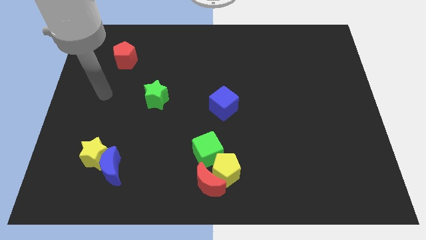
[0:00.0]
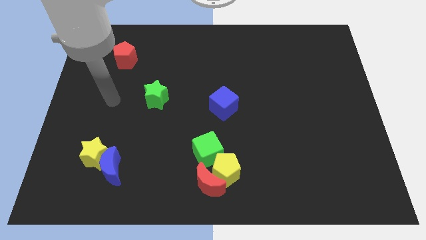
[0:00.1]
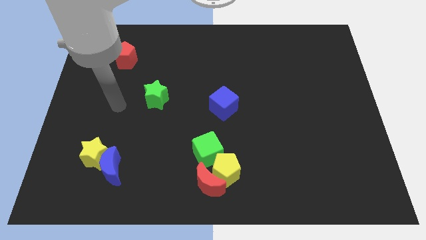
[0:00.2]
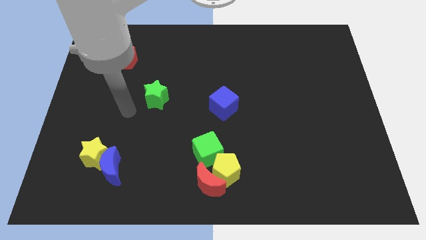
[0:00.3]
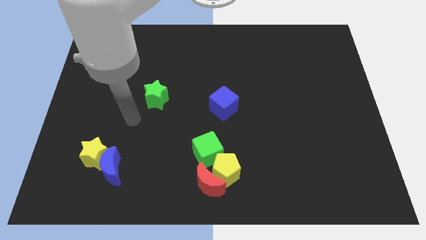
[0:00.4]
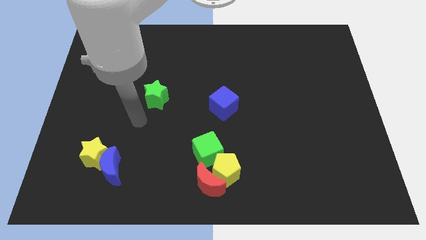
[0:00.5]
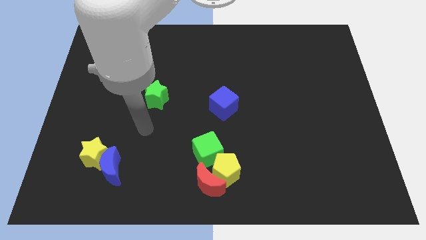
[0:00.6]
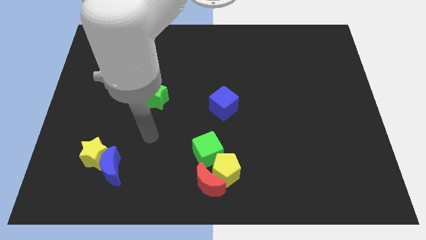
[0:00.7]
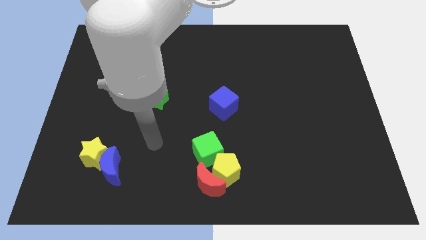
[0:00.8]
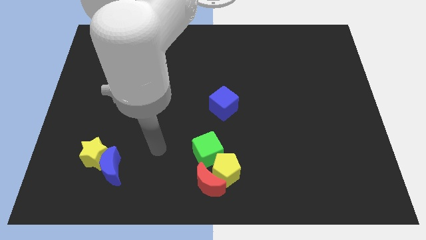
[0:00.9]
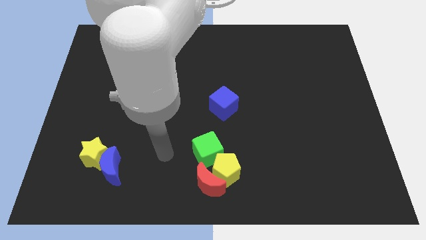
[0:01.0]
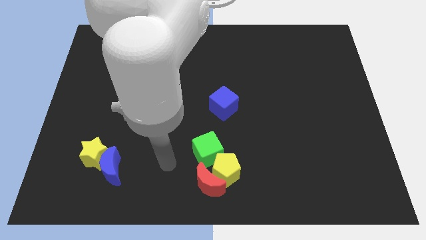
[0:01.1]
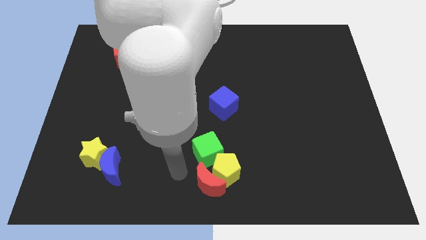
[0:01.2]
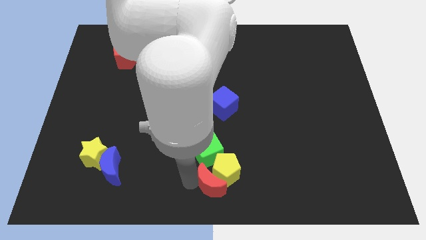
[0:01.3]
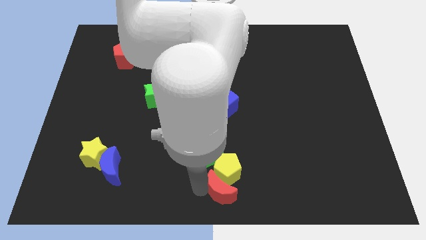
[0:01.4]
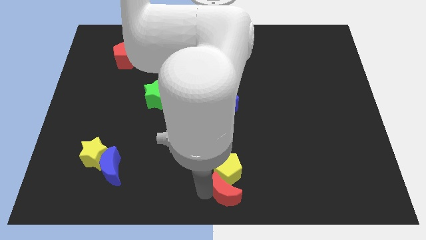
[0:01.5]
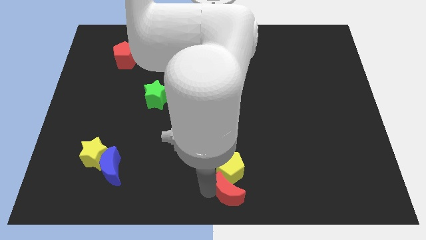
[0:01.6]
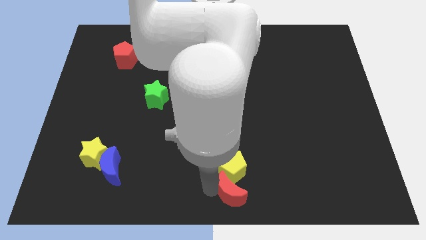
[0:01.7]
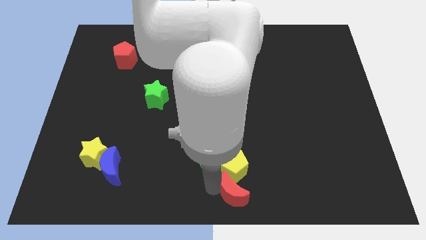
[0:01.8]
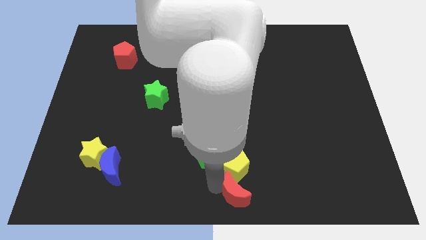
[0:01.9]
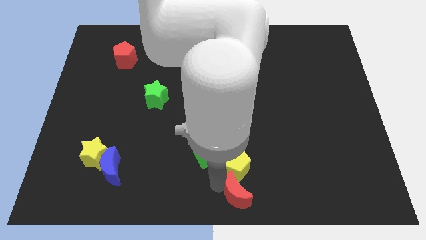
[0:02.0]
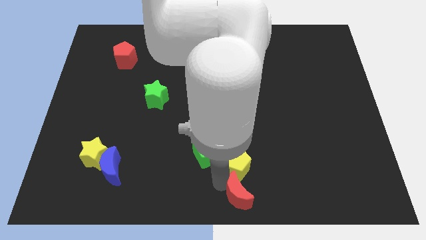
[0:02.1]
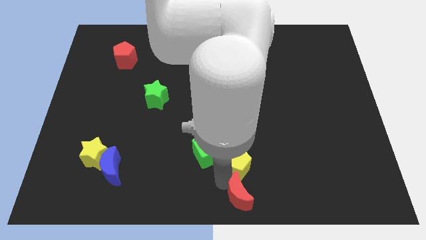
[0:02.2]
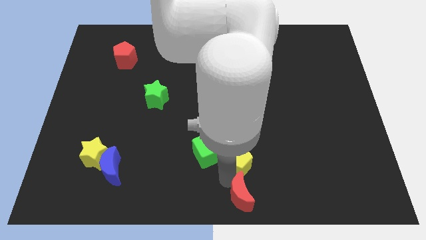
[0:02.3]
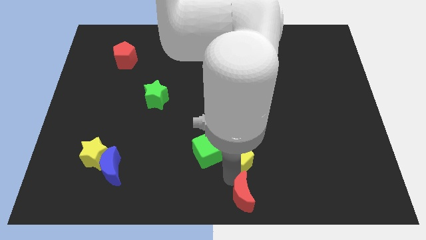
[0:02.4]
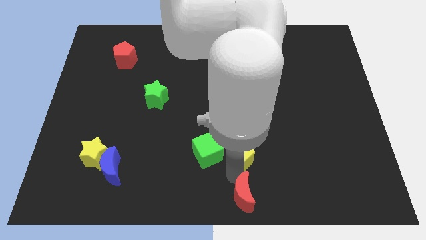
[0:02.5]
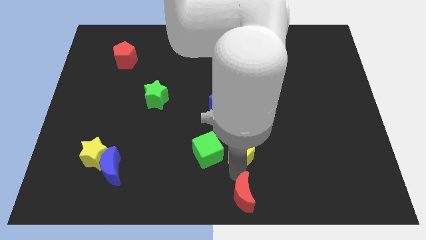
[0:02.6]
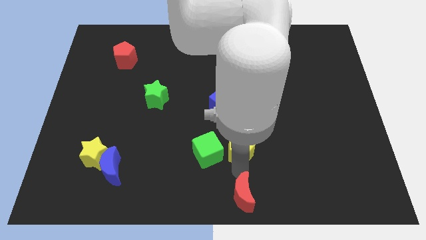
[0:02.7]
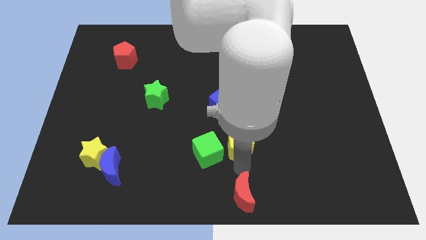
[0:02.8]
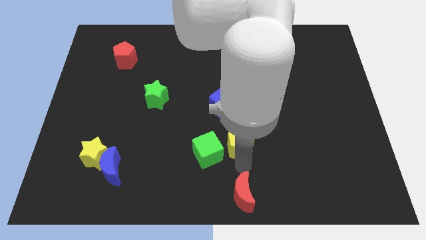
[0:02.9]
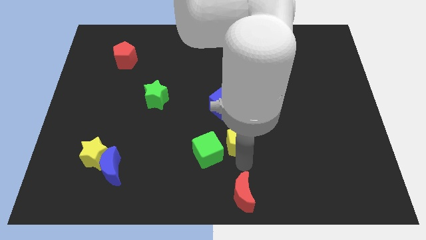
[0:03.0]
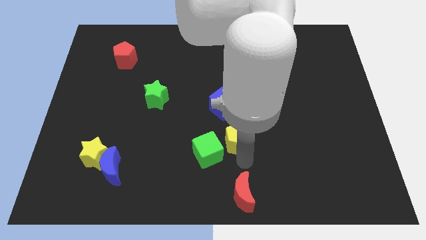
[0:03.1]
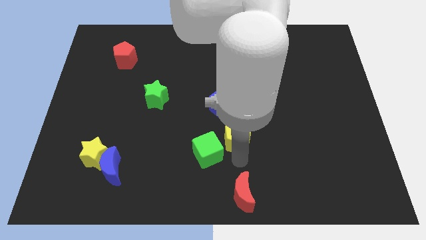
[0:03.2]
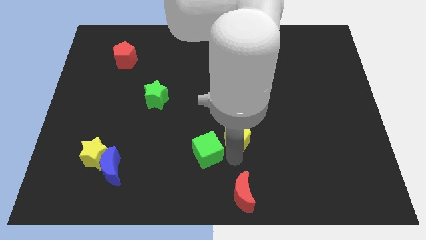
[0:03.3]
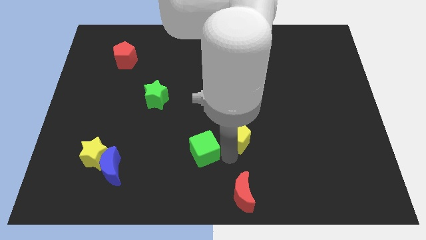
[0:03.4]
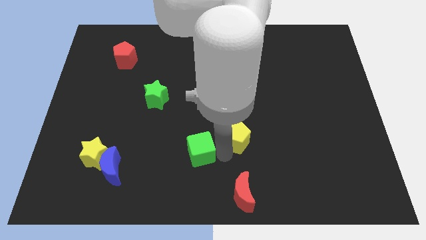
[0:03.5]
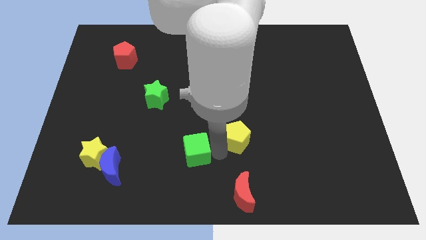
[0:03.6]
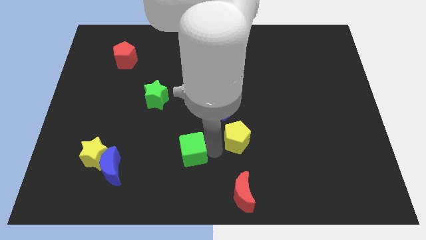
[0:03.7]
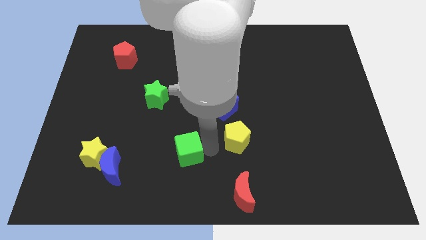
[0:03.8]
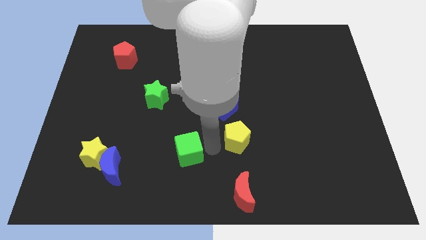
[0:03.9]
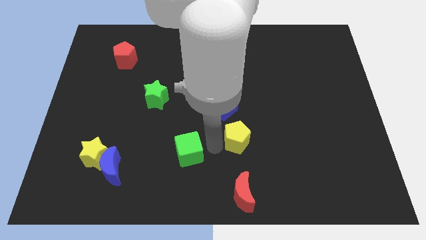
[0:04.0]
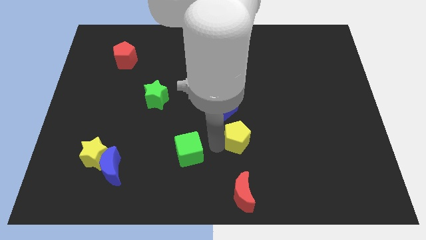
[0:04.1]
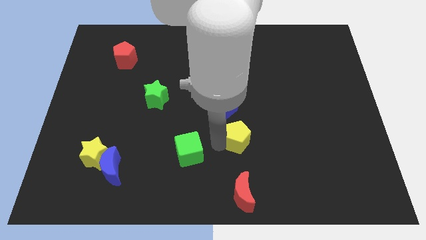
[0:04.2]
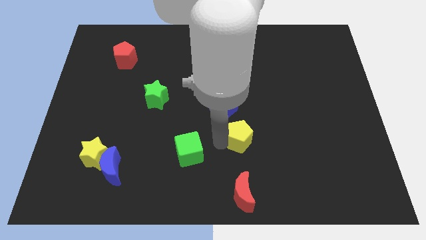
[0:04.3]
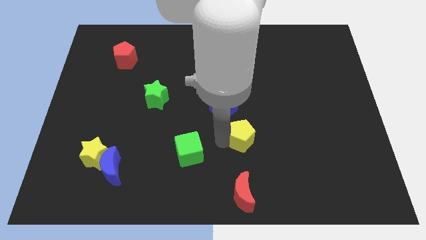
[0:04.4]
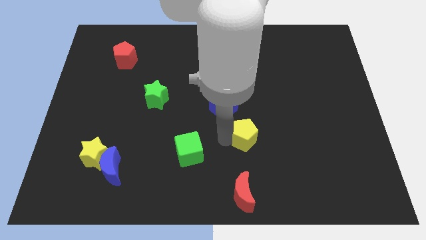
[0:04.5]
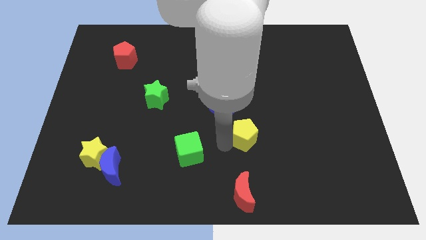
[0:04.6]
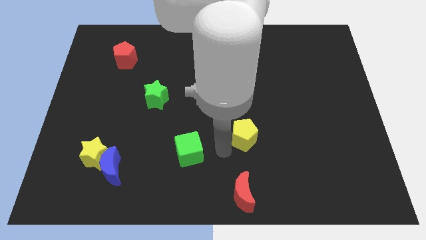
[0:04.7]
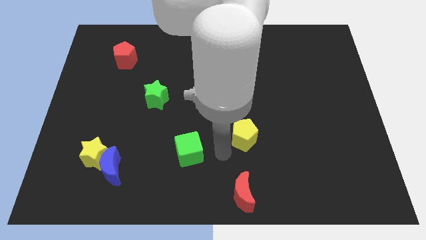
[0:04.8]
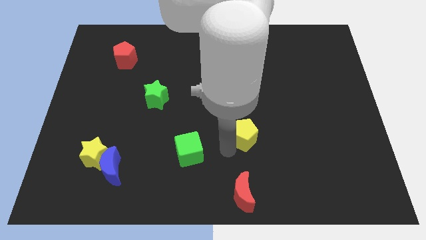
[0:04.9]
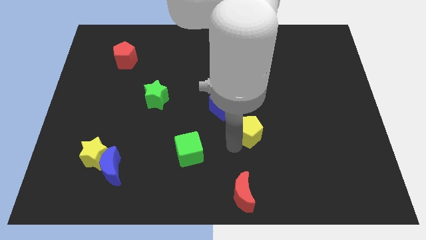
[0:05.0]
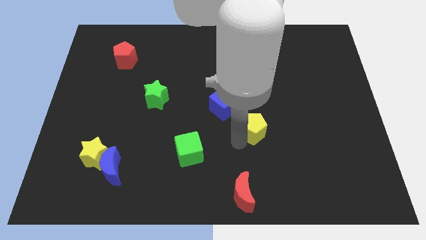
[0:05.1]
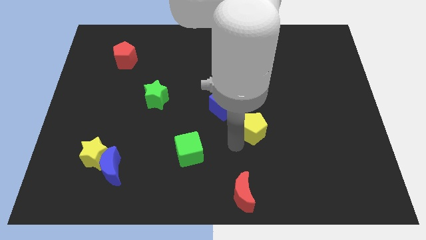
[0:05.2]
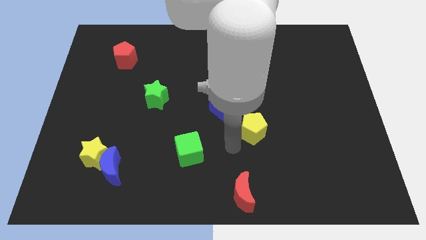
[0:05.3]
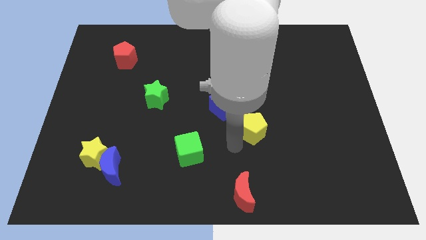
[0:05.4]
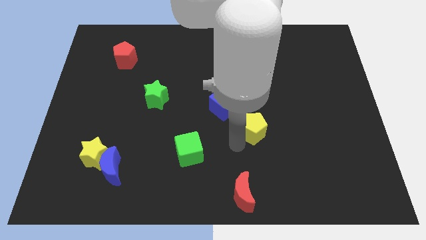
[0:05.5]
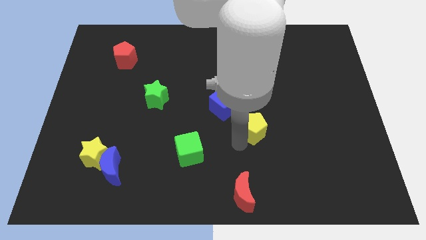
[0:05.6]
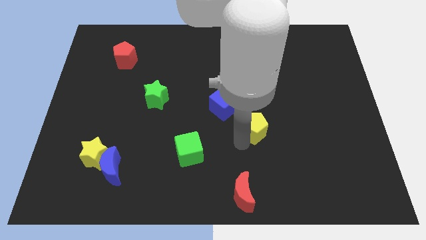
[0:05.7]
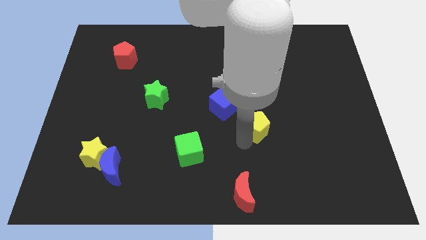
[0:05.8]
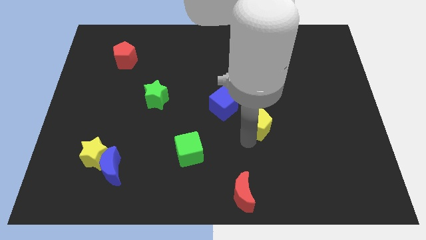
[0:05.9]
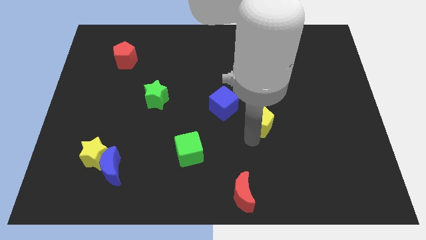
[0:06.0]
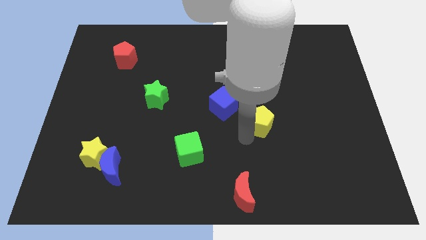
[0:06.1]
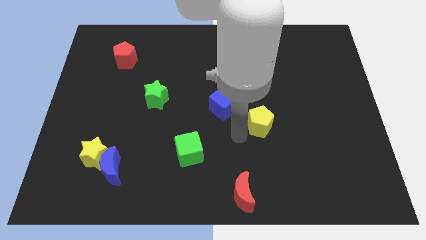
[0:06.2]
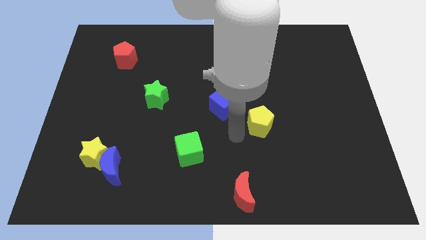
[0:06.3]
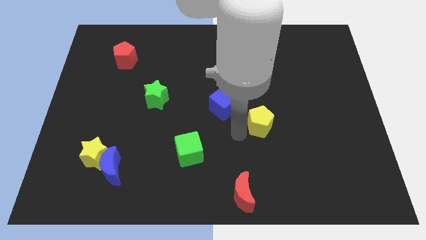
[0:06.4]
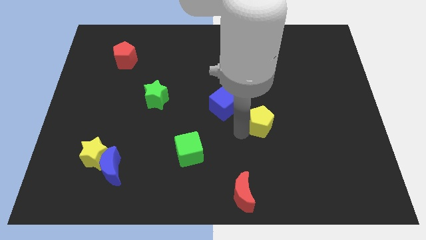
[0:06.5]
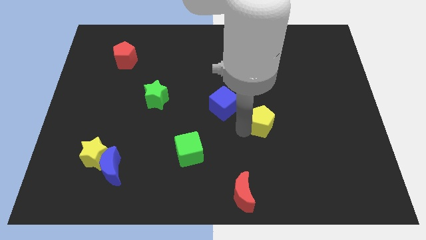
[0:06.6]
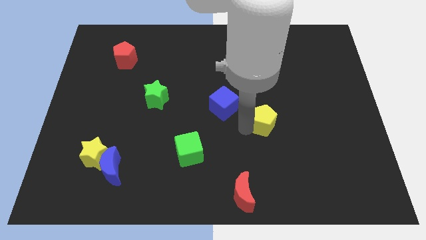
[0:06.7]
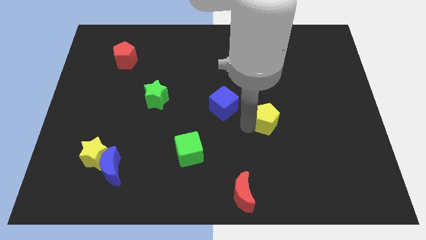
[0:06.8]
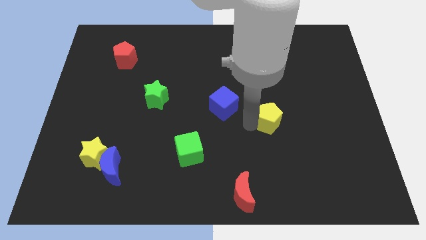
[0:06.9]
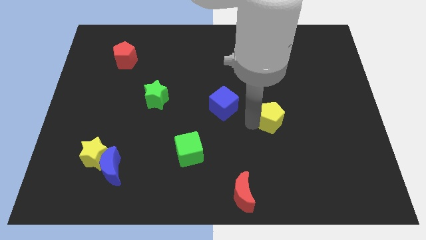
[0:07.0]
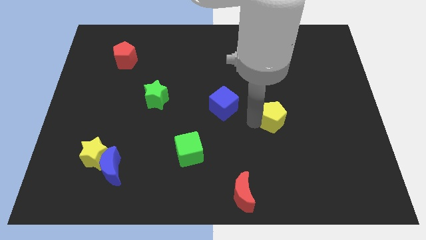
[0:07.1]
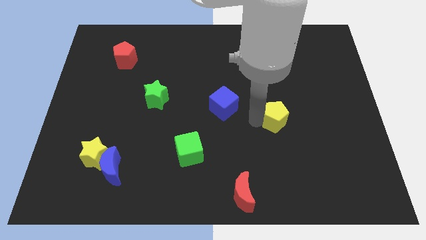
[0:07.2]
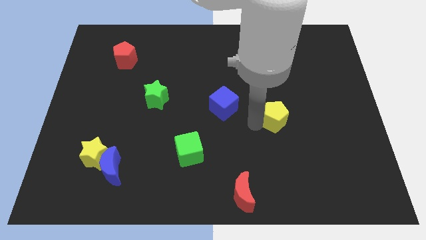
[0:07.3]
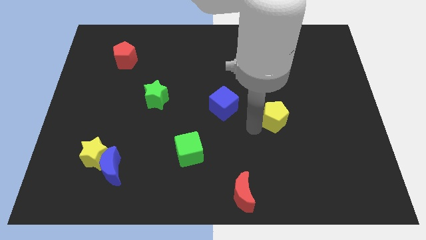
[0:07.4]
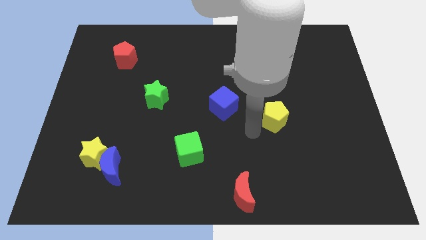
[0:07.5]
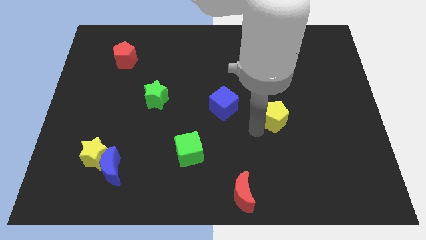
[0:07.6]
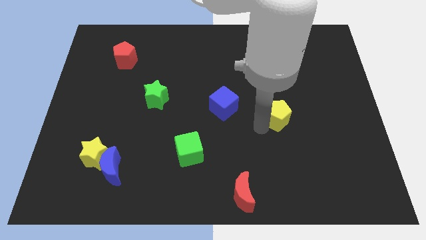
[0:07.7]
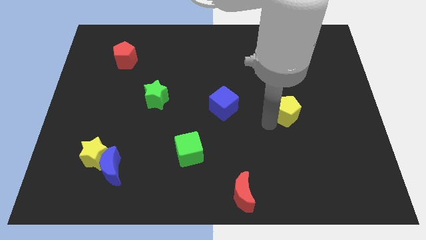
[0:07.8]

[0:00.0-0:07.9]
move the yellow pentagon diagonally upwards and right
